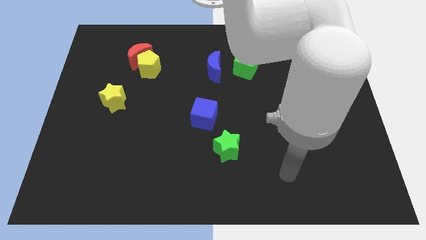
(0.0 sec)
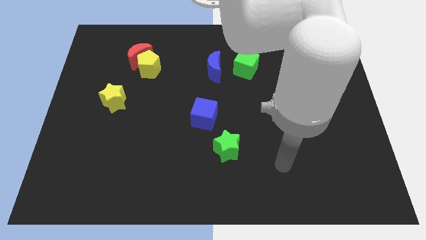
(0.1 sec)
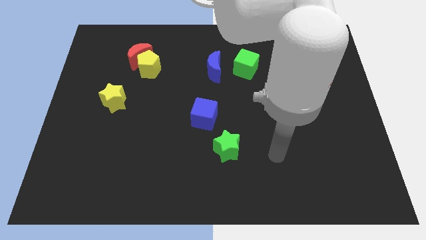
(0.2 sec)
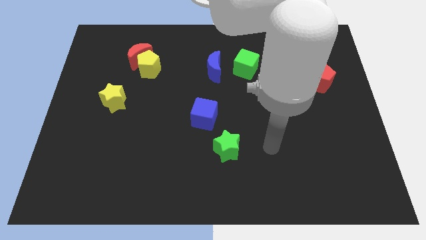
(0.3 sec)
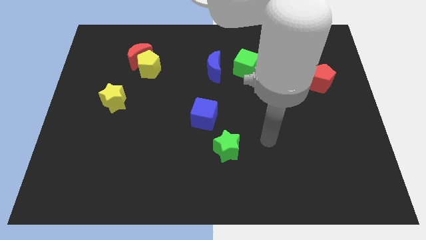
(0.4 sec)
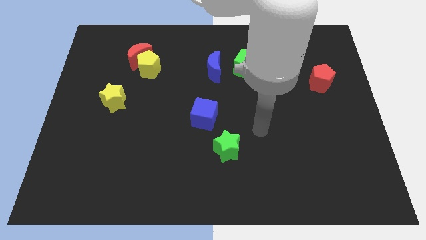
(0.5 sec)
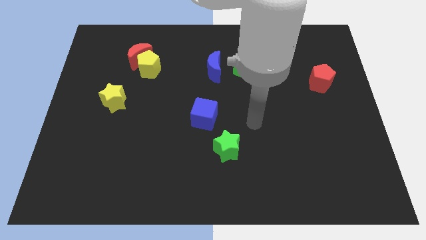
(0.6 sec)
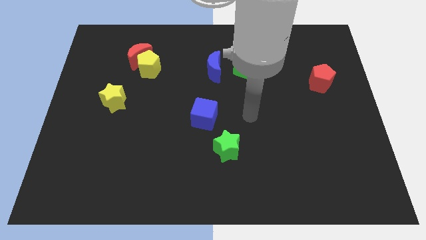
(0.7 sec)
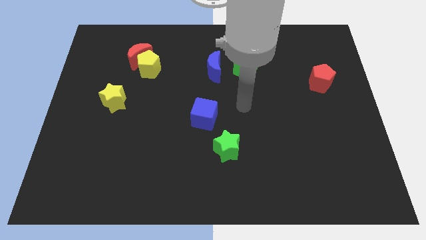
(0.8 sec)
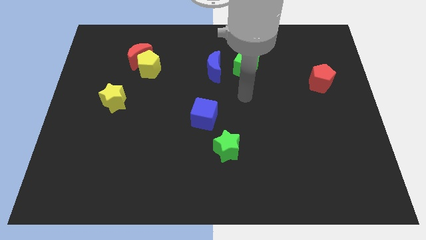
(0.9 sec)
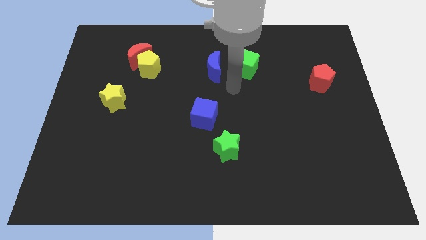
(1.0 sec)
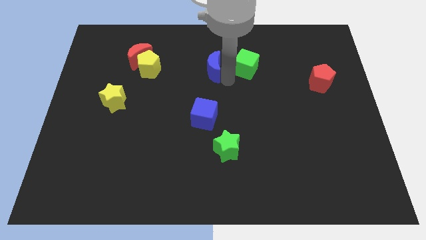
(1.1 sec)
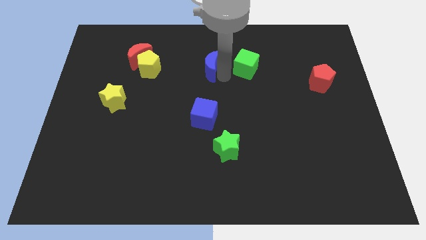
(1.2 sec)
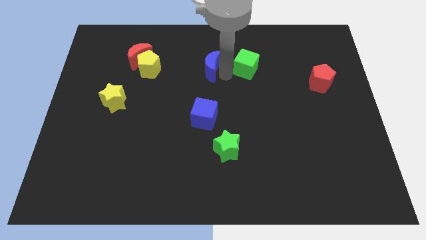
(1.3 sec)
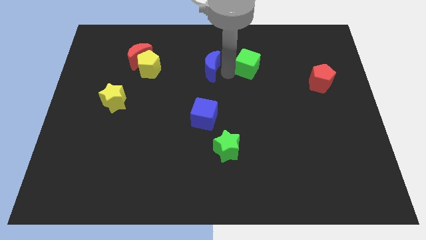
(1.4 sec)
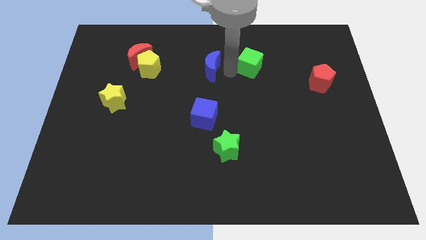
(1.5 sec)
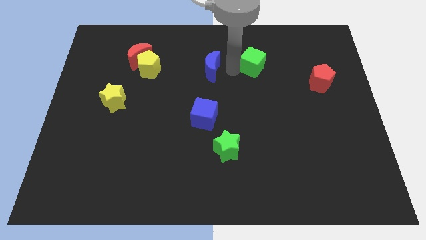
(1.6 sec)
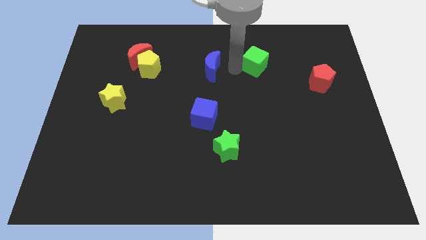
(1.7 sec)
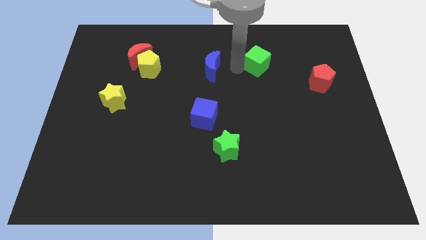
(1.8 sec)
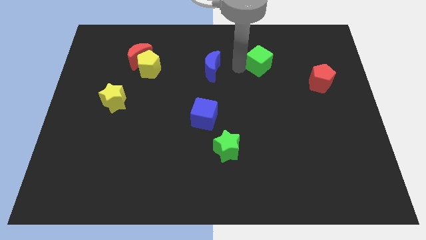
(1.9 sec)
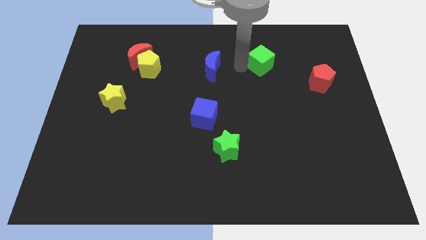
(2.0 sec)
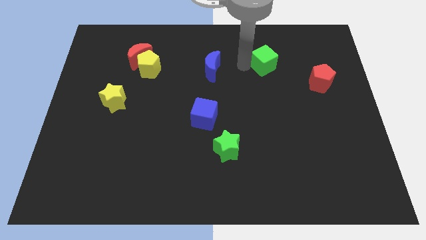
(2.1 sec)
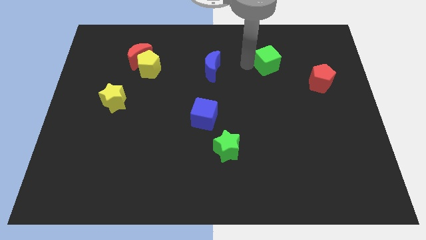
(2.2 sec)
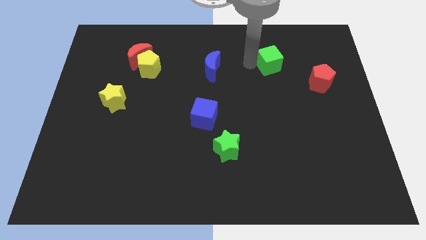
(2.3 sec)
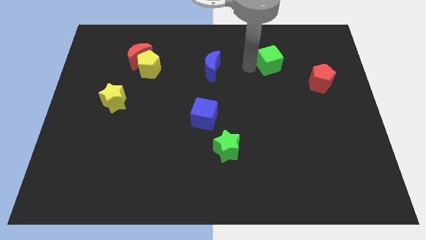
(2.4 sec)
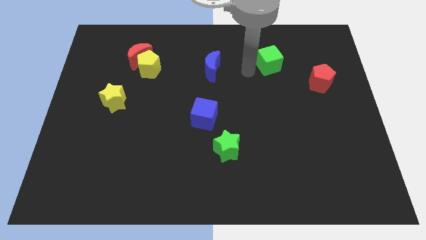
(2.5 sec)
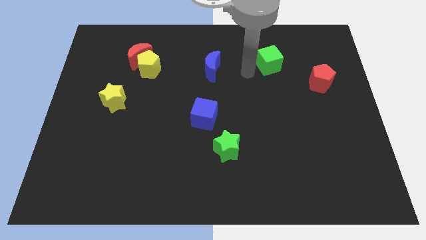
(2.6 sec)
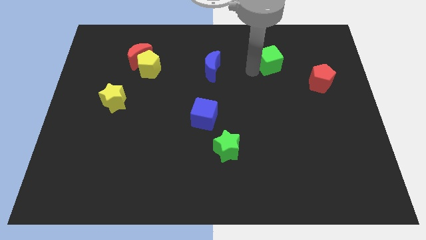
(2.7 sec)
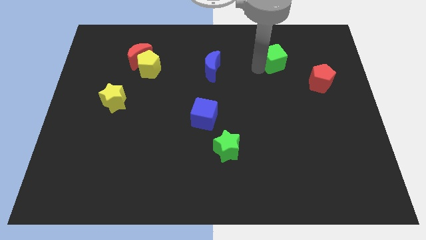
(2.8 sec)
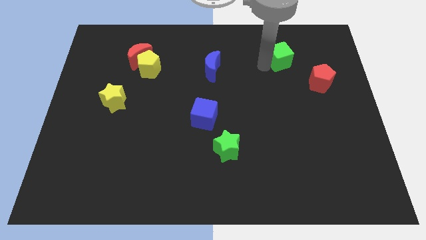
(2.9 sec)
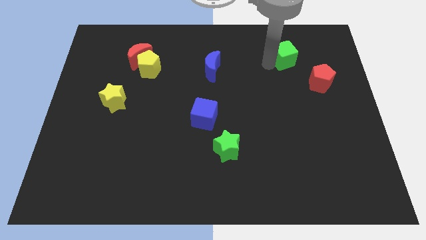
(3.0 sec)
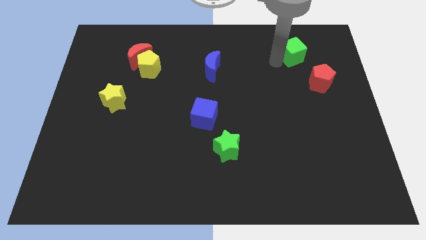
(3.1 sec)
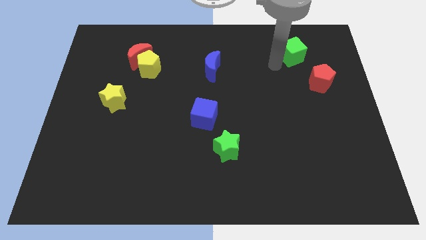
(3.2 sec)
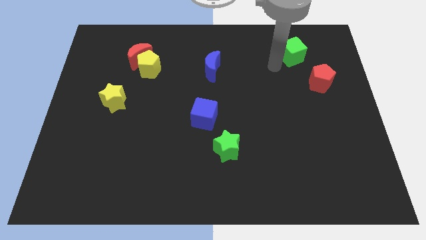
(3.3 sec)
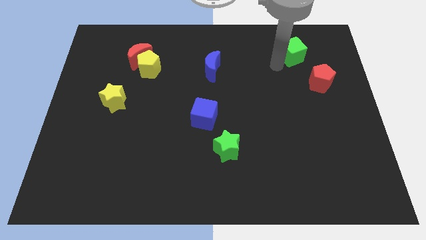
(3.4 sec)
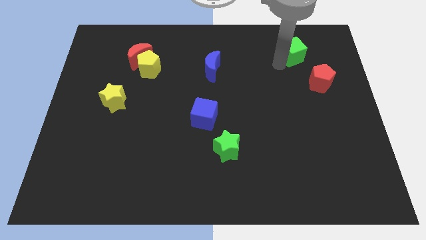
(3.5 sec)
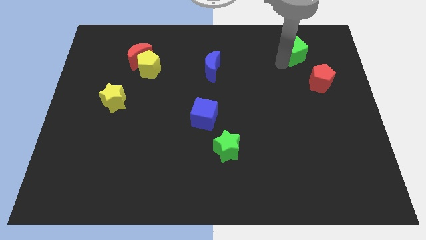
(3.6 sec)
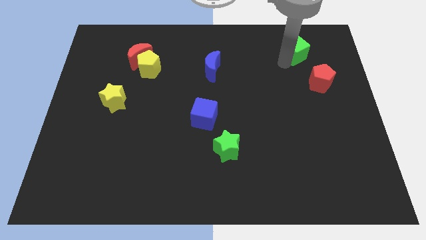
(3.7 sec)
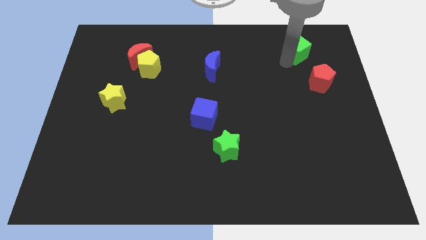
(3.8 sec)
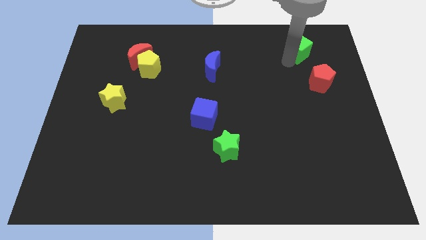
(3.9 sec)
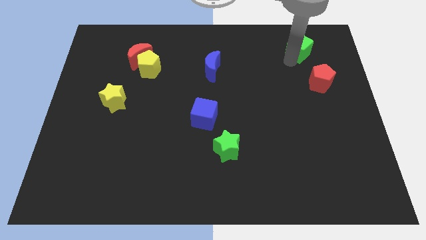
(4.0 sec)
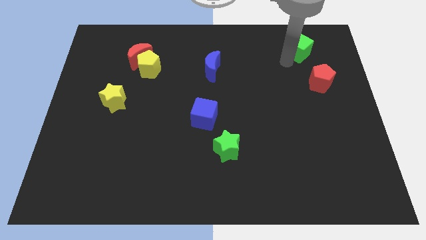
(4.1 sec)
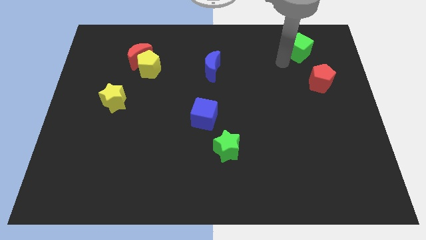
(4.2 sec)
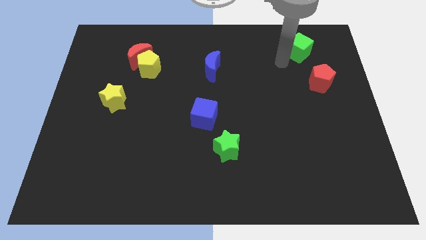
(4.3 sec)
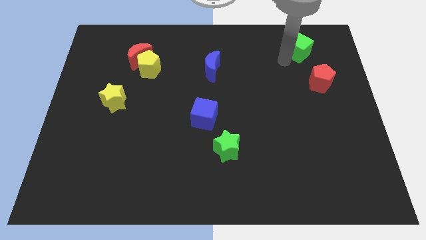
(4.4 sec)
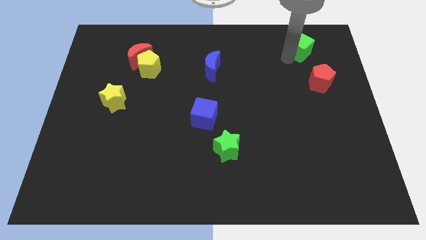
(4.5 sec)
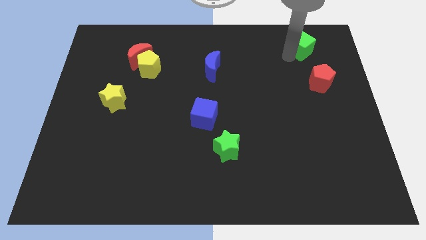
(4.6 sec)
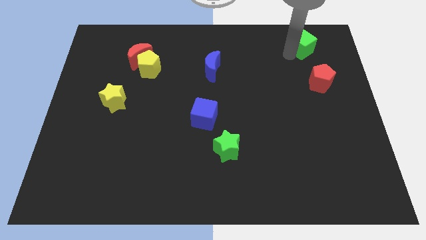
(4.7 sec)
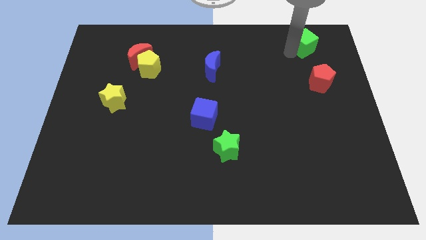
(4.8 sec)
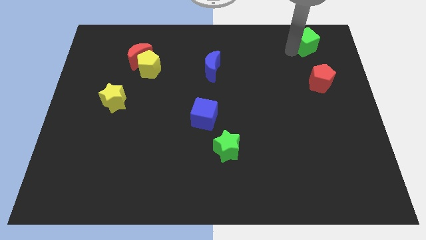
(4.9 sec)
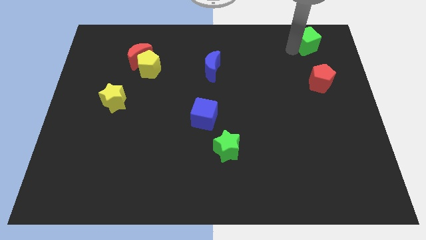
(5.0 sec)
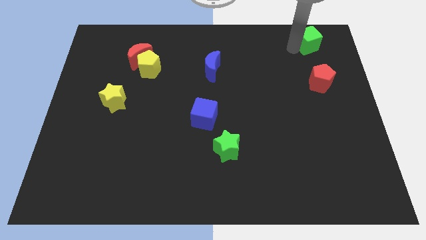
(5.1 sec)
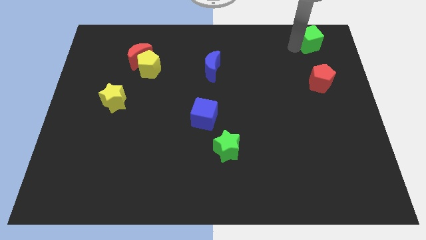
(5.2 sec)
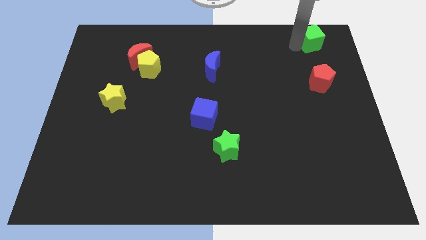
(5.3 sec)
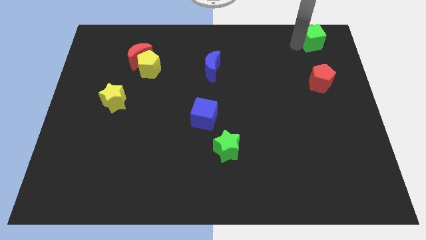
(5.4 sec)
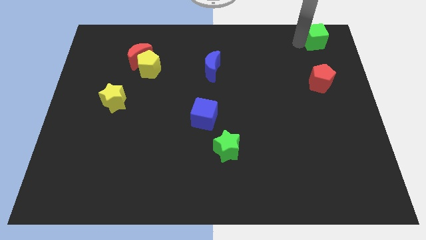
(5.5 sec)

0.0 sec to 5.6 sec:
put the green cube to the top right
